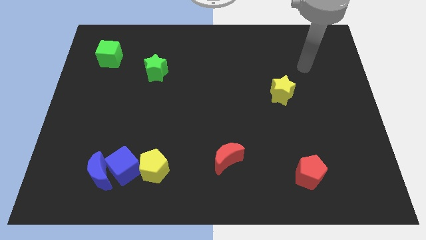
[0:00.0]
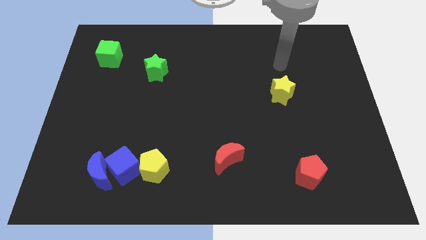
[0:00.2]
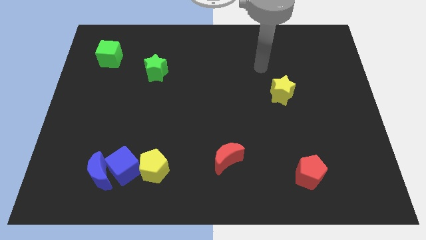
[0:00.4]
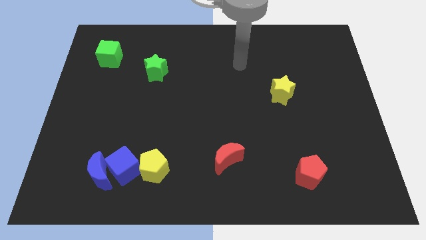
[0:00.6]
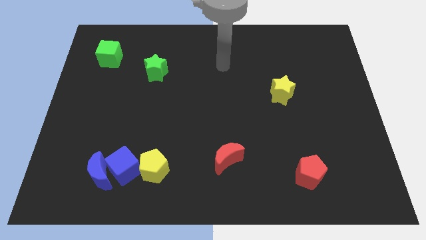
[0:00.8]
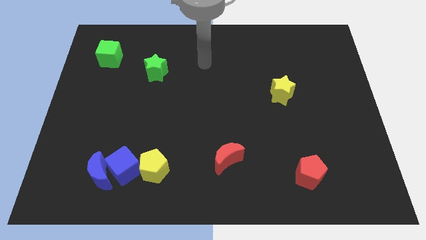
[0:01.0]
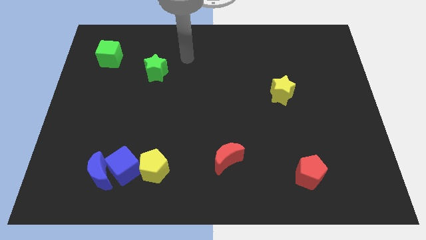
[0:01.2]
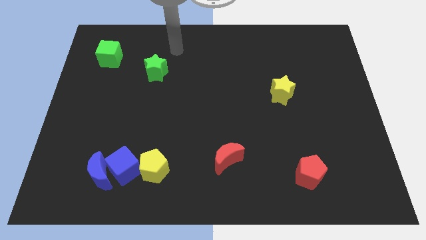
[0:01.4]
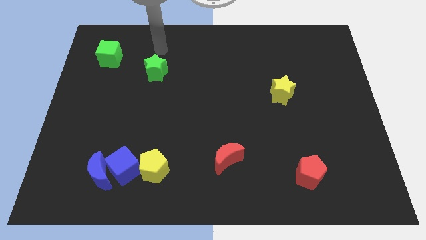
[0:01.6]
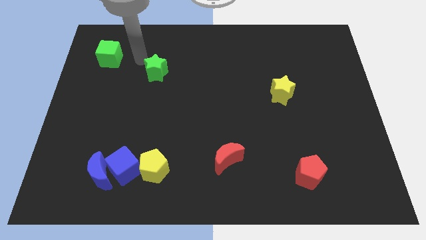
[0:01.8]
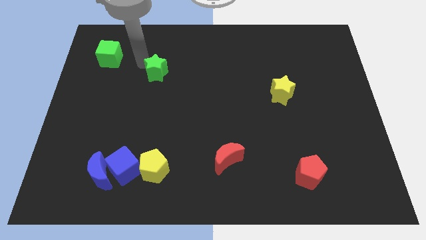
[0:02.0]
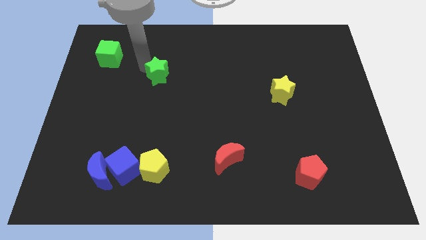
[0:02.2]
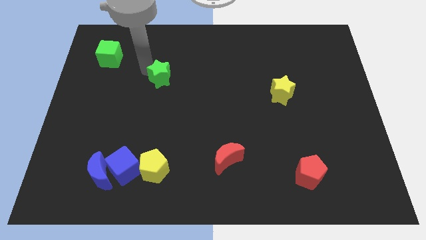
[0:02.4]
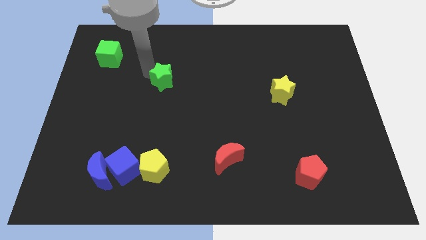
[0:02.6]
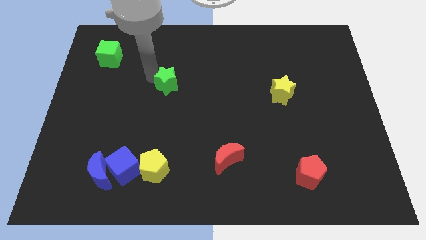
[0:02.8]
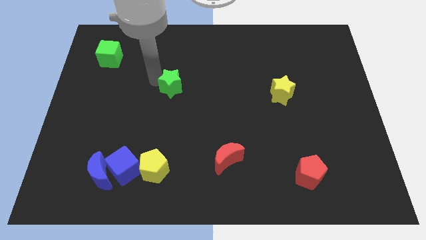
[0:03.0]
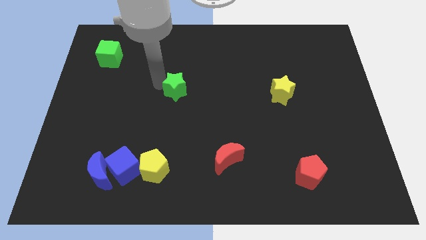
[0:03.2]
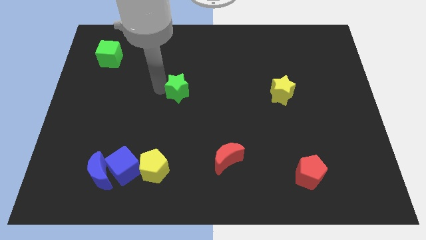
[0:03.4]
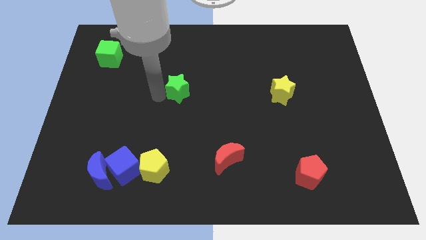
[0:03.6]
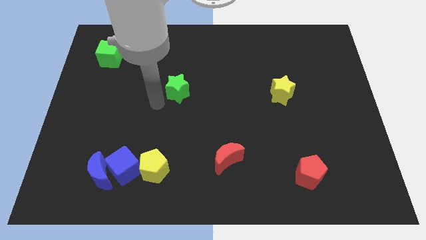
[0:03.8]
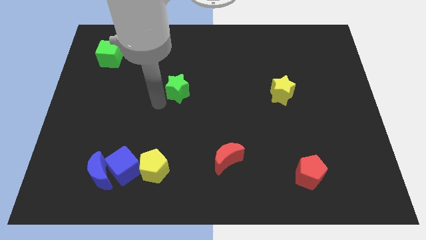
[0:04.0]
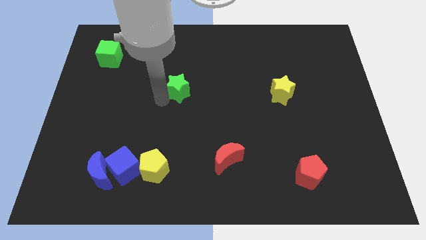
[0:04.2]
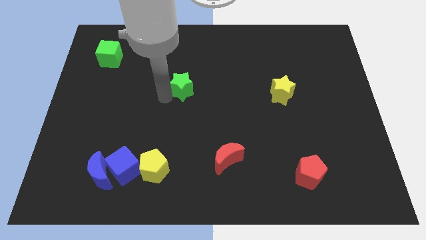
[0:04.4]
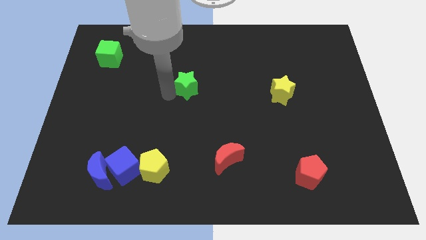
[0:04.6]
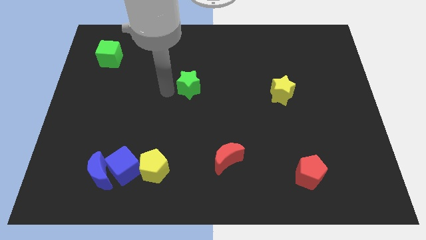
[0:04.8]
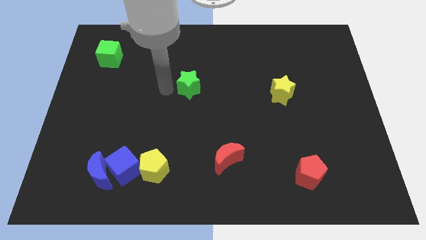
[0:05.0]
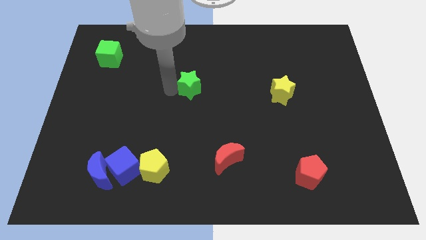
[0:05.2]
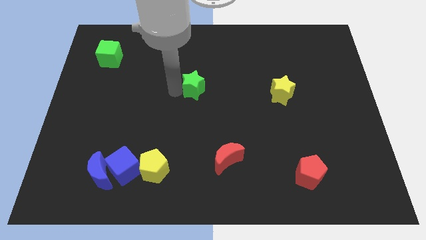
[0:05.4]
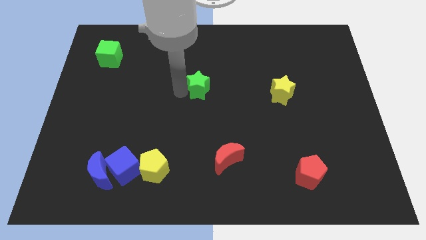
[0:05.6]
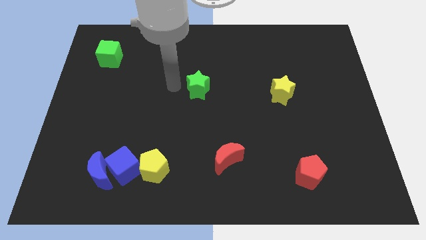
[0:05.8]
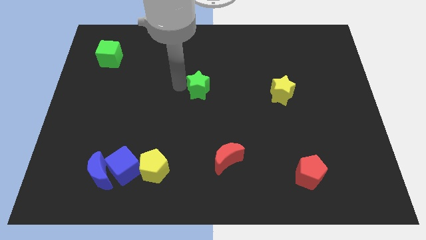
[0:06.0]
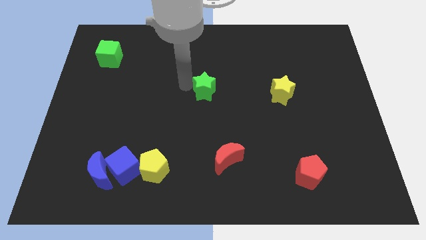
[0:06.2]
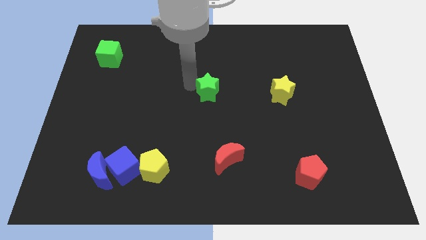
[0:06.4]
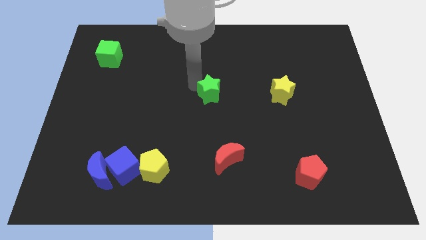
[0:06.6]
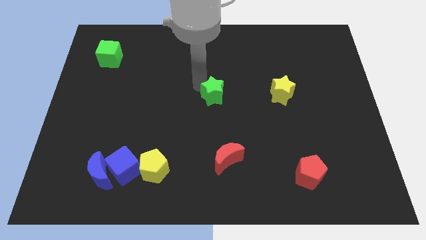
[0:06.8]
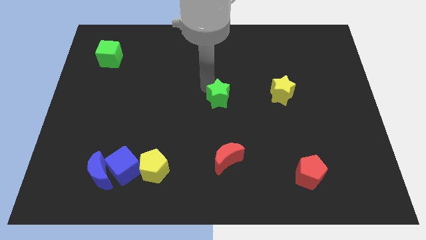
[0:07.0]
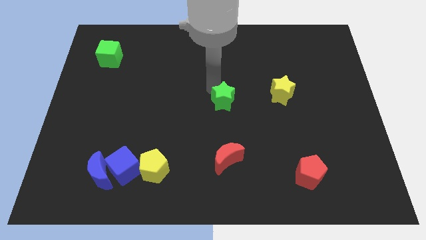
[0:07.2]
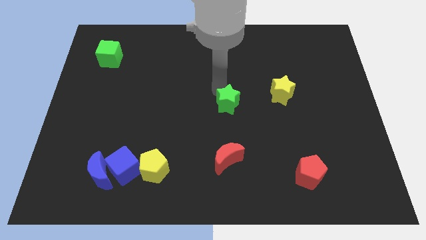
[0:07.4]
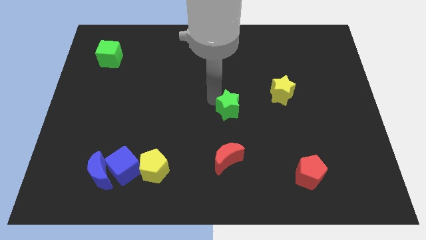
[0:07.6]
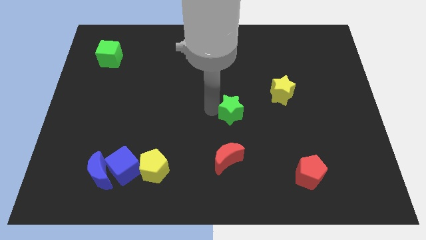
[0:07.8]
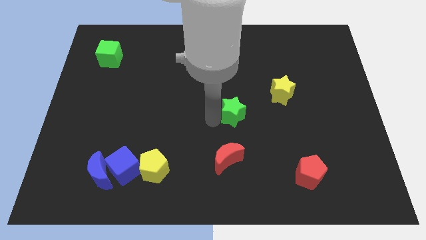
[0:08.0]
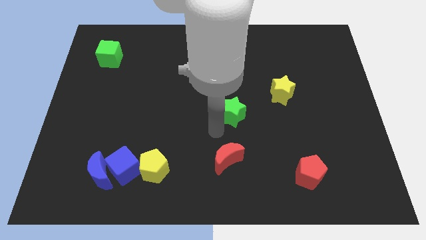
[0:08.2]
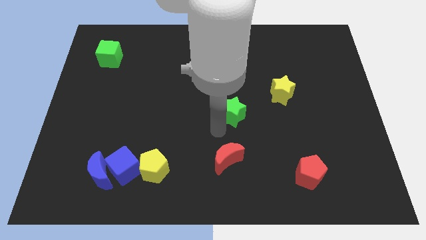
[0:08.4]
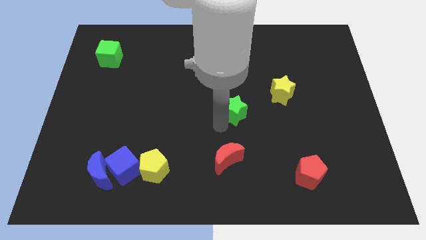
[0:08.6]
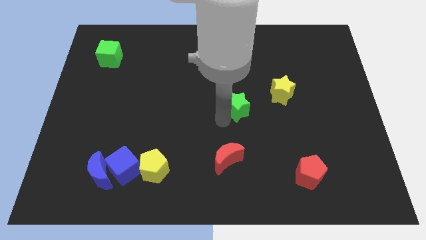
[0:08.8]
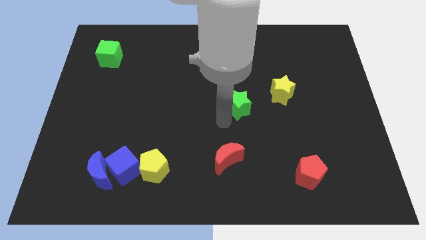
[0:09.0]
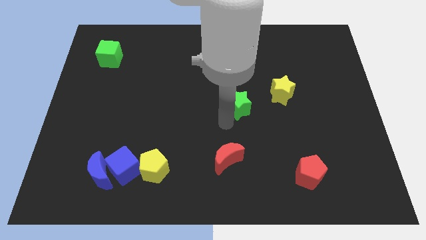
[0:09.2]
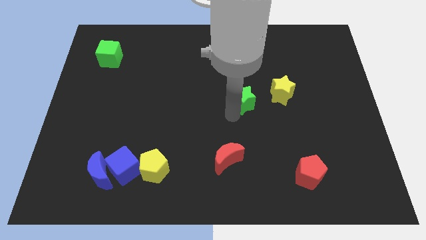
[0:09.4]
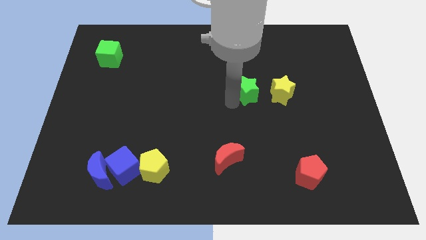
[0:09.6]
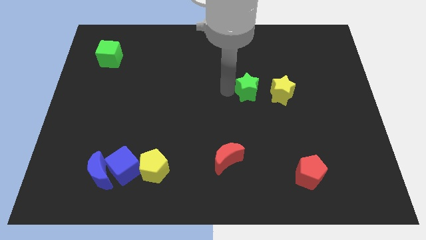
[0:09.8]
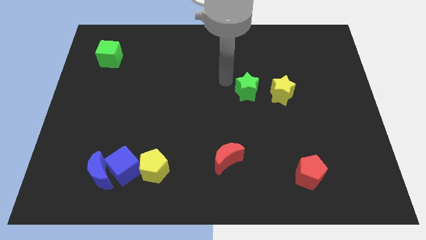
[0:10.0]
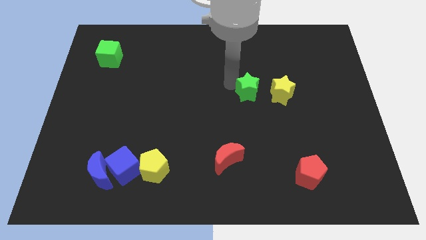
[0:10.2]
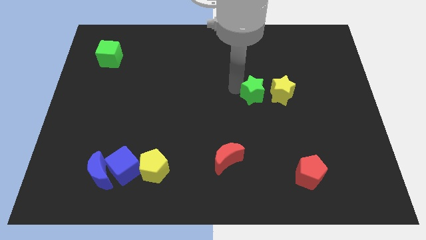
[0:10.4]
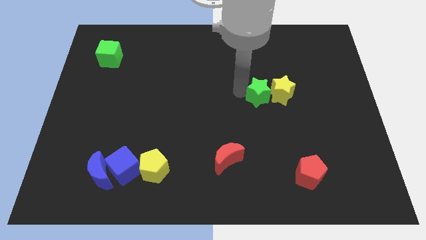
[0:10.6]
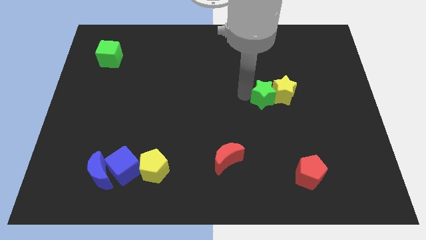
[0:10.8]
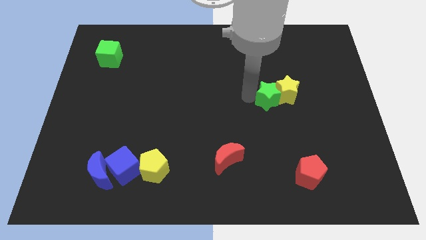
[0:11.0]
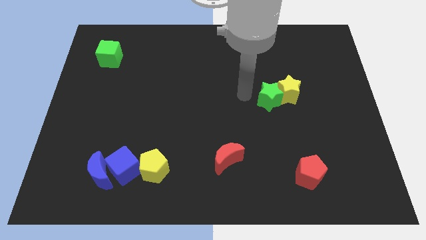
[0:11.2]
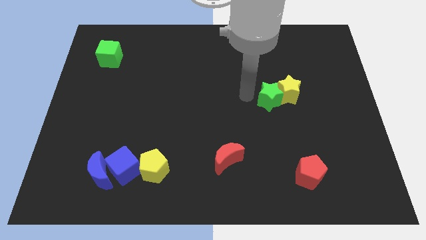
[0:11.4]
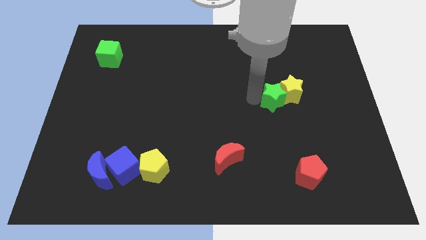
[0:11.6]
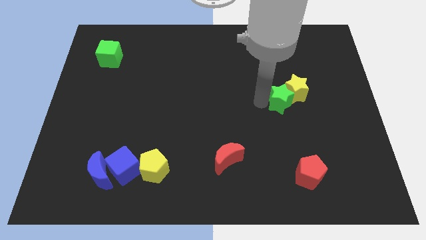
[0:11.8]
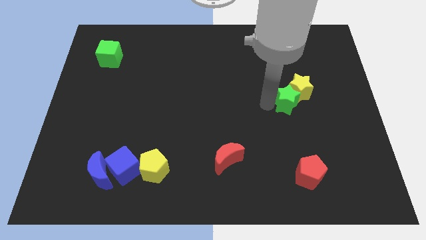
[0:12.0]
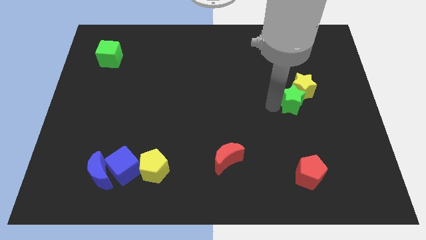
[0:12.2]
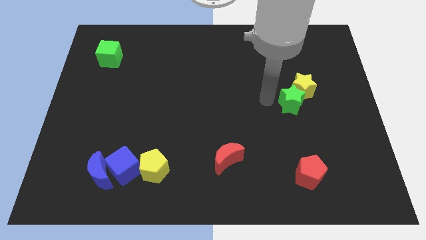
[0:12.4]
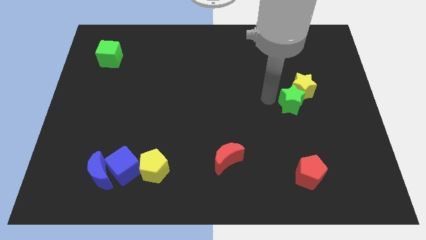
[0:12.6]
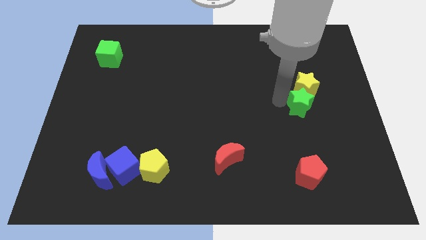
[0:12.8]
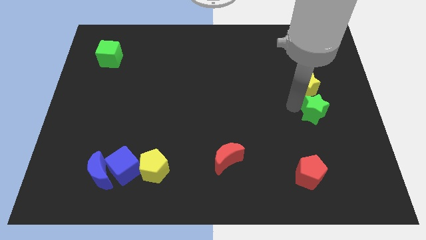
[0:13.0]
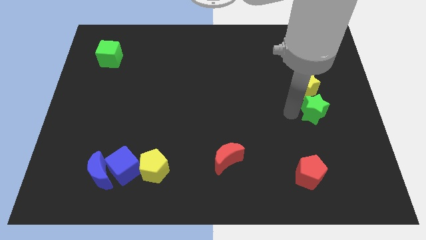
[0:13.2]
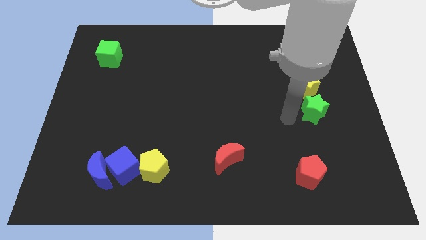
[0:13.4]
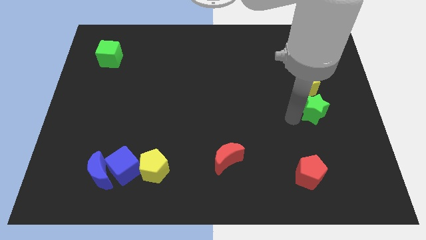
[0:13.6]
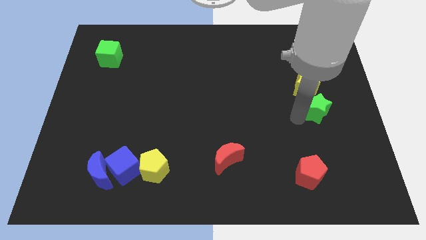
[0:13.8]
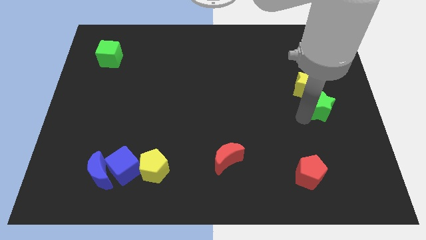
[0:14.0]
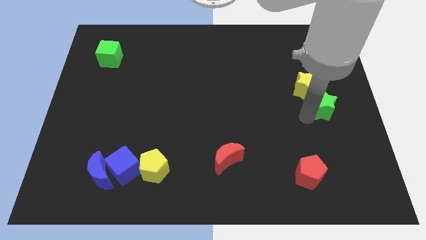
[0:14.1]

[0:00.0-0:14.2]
push the green star to the right side
